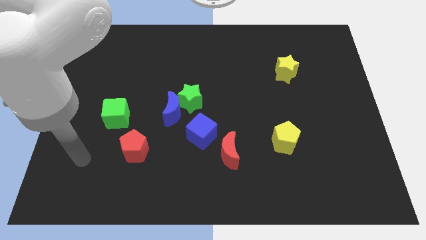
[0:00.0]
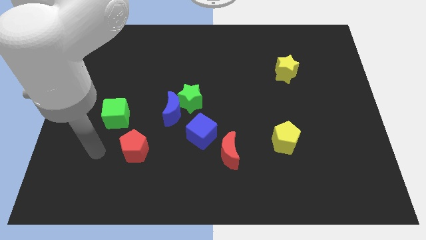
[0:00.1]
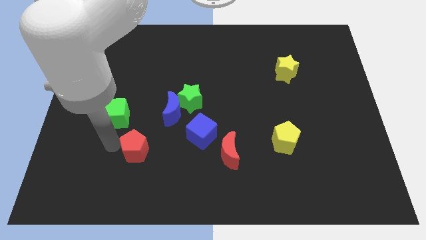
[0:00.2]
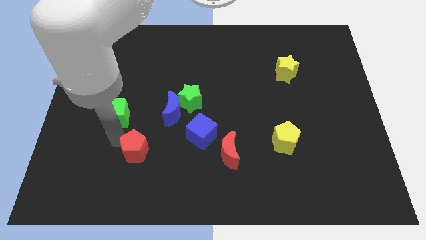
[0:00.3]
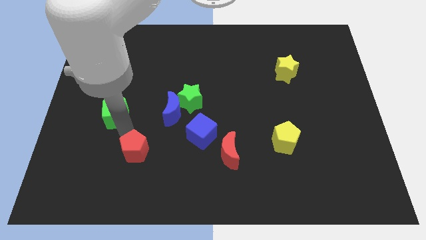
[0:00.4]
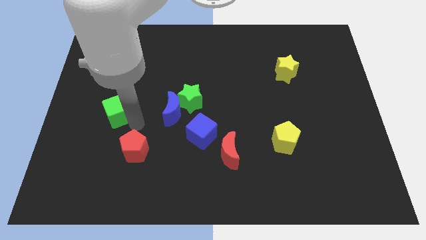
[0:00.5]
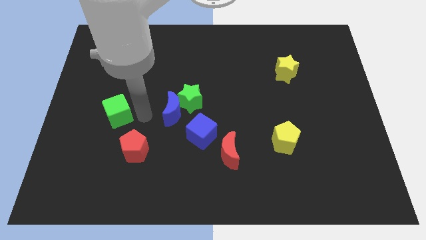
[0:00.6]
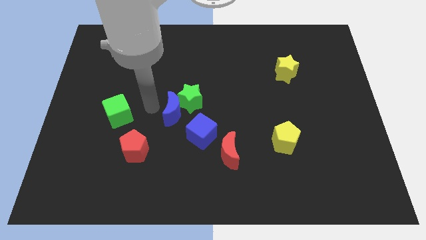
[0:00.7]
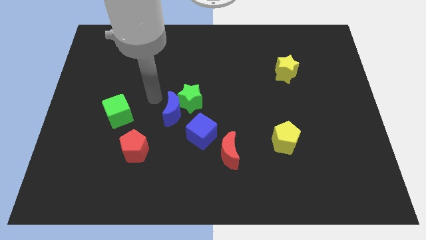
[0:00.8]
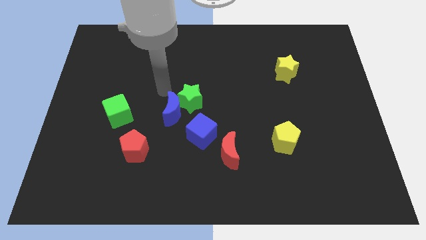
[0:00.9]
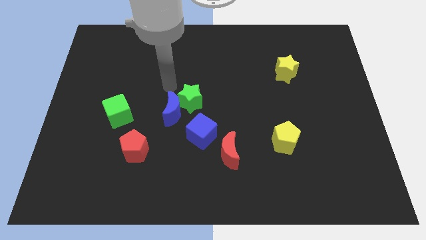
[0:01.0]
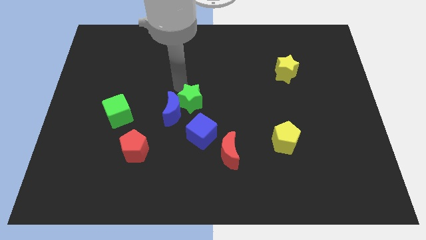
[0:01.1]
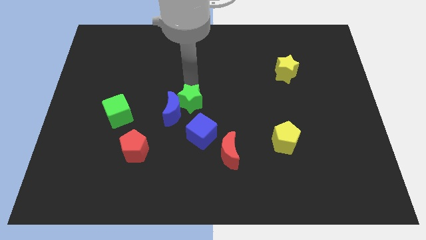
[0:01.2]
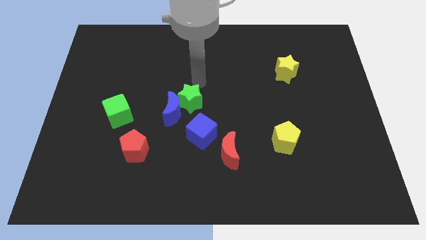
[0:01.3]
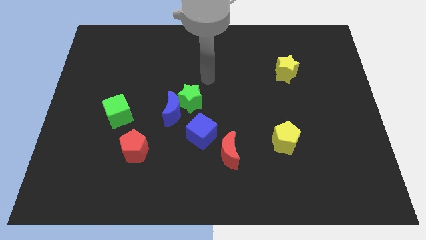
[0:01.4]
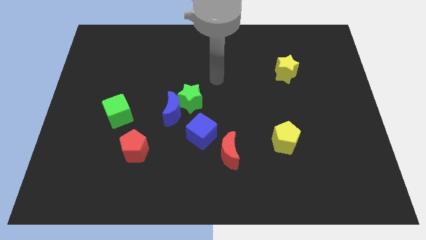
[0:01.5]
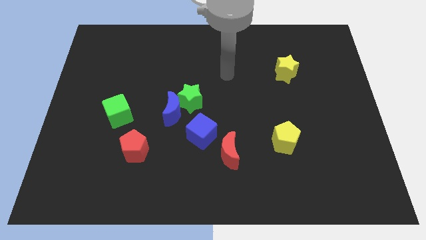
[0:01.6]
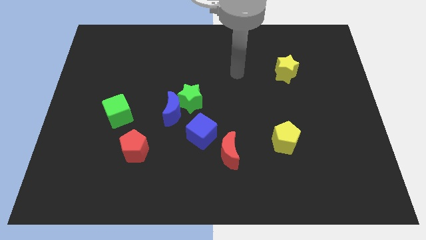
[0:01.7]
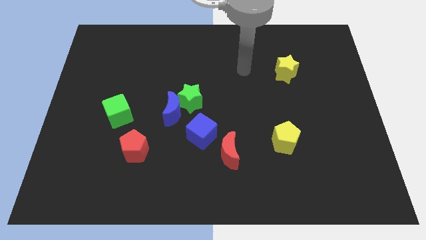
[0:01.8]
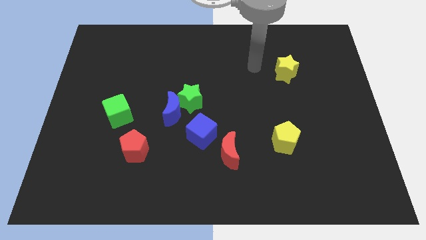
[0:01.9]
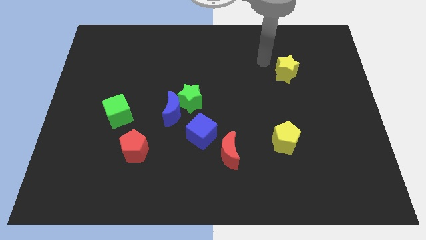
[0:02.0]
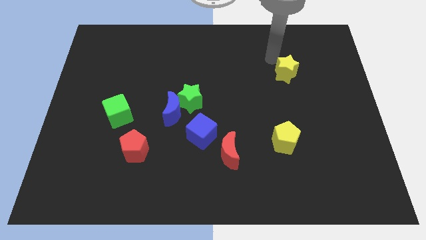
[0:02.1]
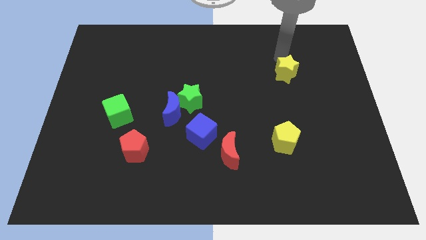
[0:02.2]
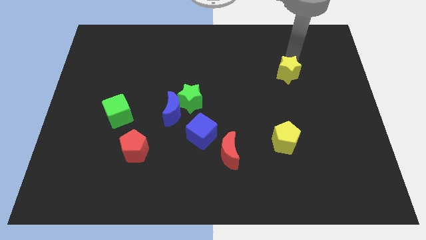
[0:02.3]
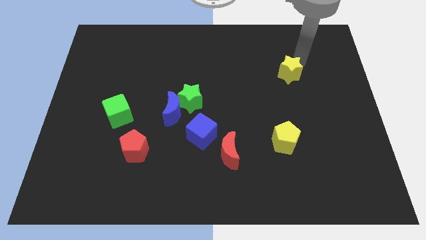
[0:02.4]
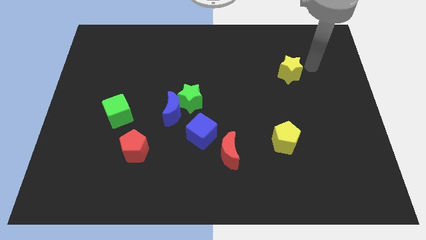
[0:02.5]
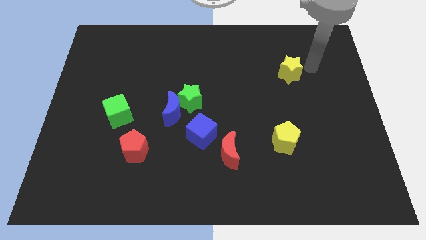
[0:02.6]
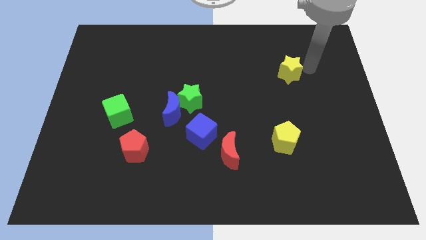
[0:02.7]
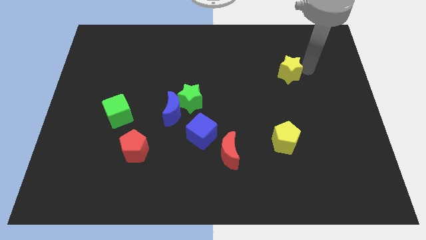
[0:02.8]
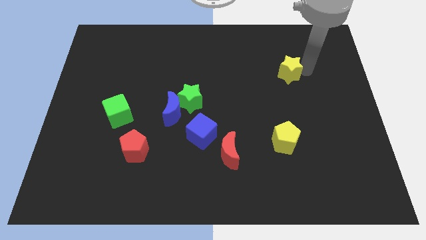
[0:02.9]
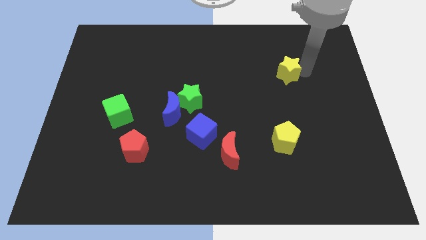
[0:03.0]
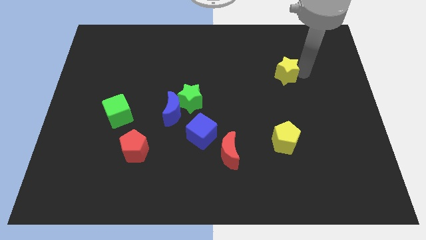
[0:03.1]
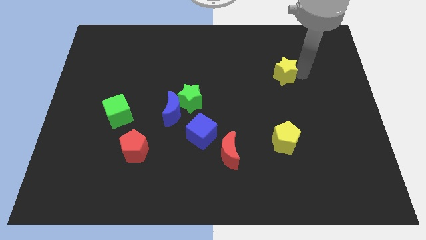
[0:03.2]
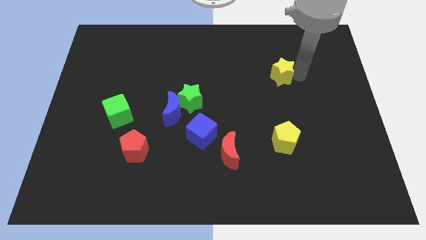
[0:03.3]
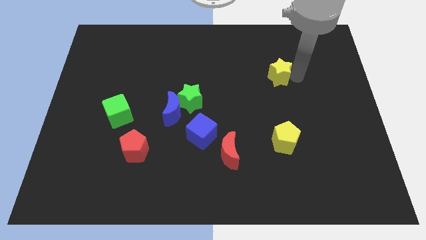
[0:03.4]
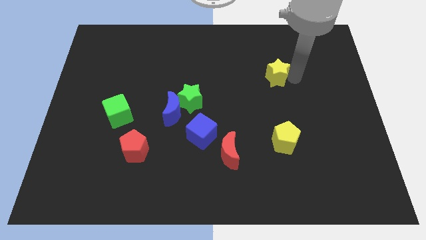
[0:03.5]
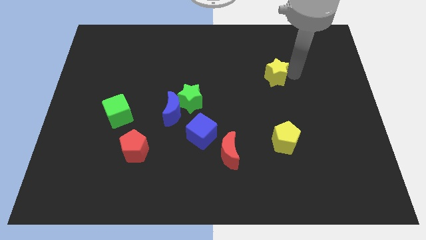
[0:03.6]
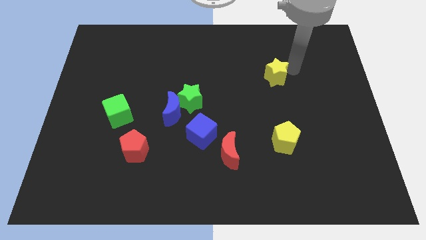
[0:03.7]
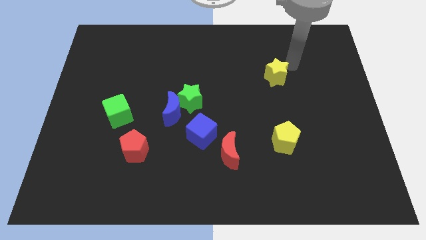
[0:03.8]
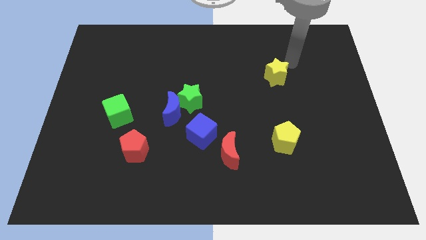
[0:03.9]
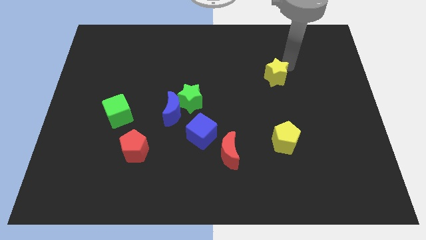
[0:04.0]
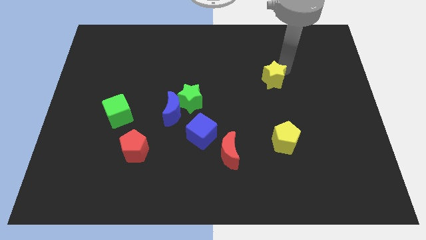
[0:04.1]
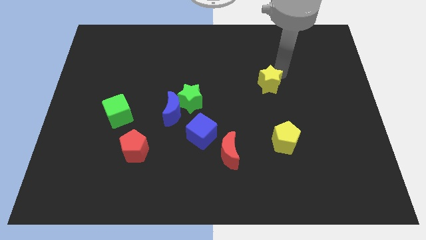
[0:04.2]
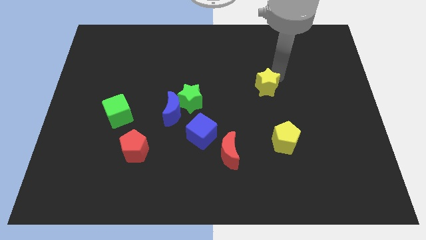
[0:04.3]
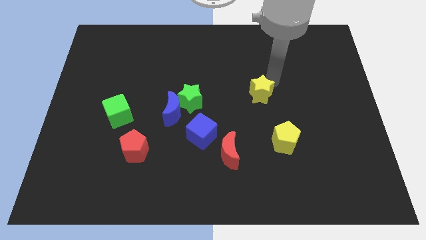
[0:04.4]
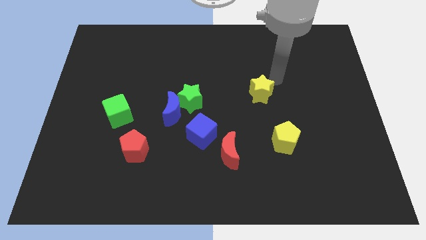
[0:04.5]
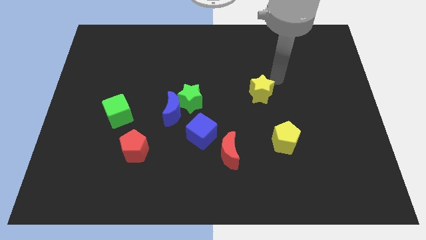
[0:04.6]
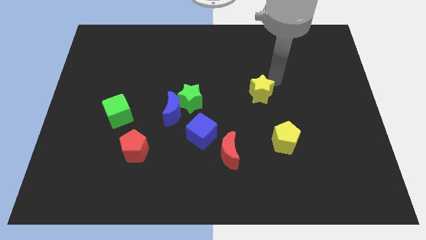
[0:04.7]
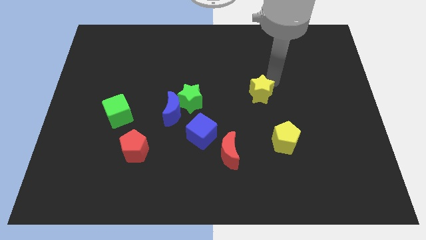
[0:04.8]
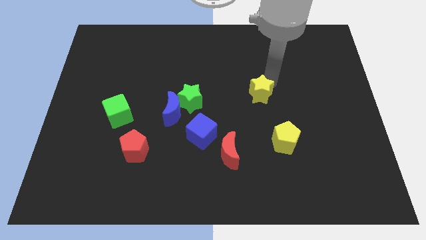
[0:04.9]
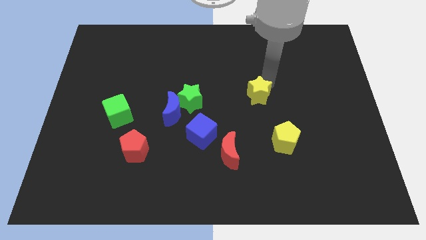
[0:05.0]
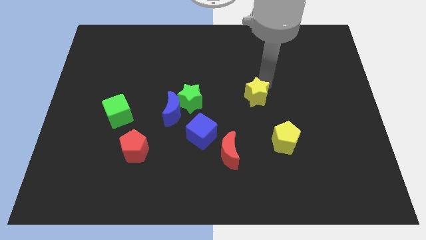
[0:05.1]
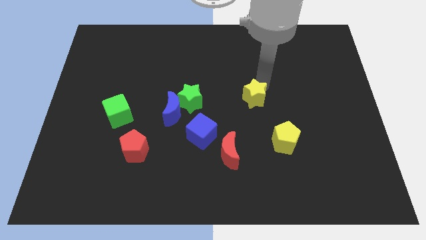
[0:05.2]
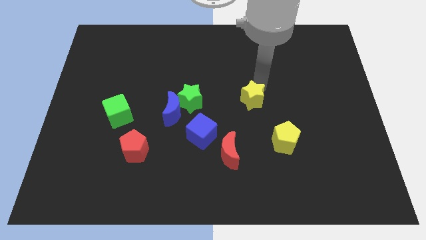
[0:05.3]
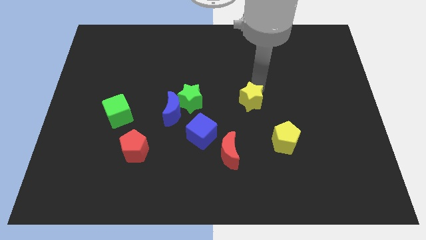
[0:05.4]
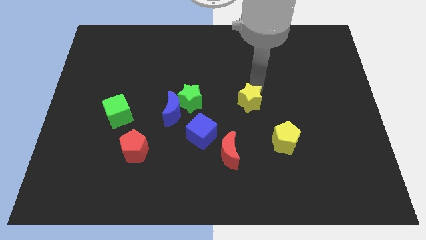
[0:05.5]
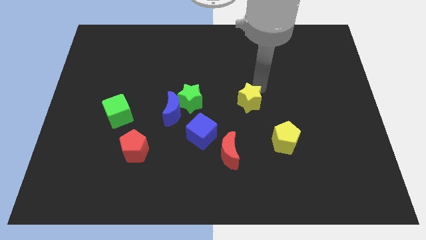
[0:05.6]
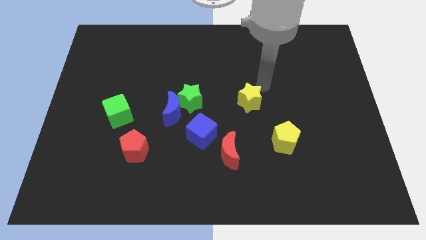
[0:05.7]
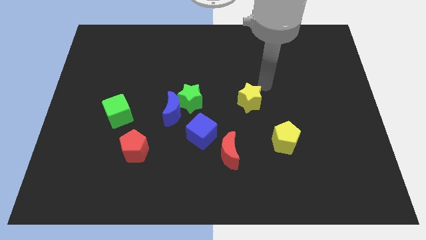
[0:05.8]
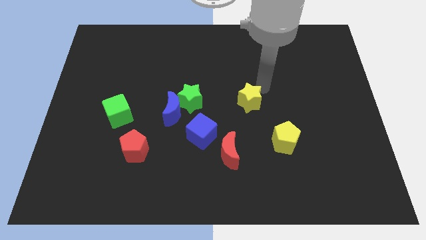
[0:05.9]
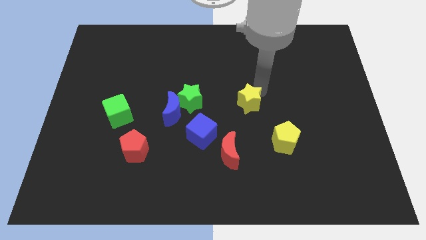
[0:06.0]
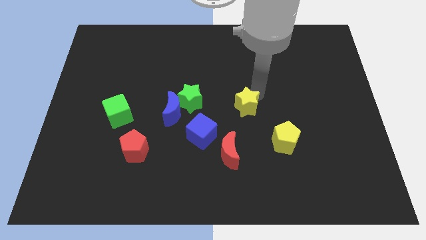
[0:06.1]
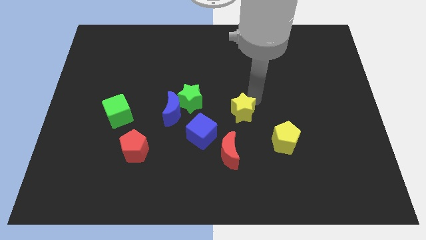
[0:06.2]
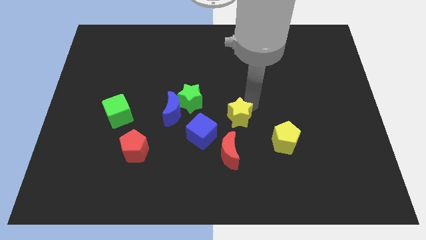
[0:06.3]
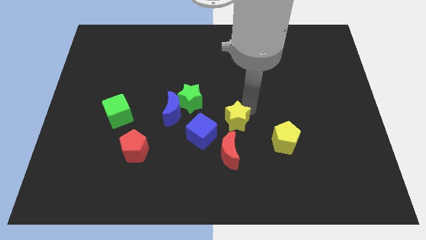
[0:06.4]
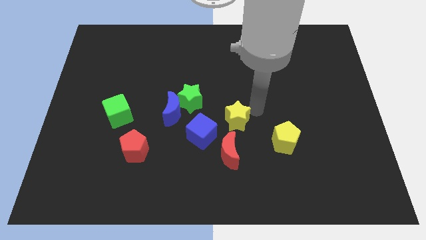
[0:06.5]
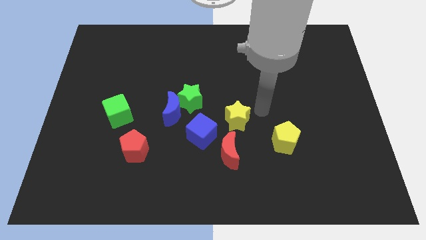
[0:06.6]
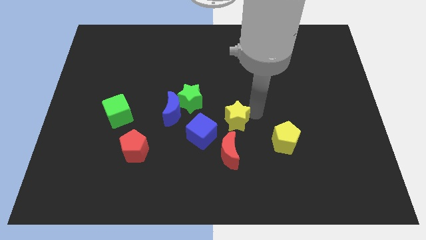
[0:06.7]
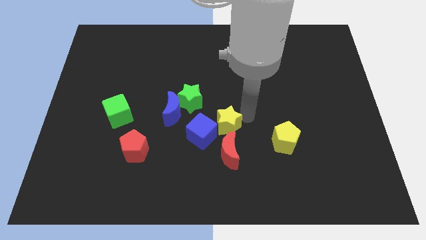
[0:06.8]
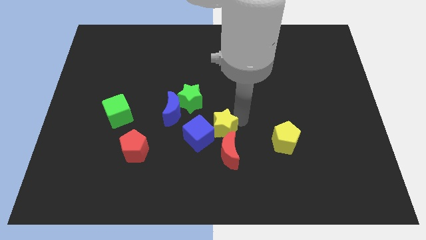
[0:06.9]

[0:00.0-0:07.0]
slide the yellow star towards the blue cube

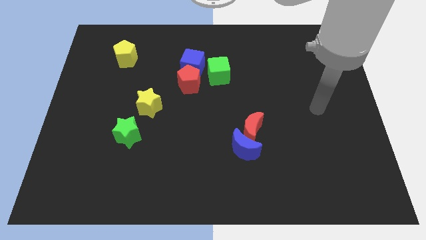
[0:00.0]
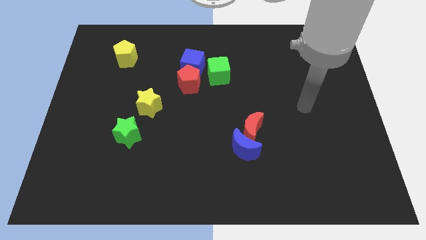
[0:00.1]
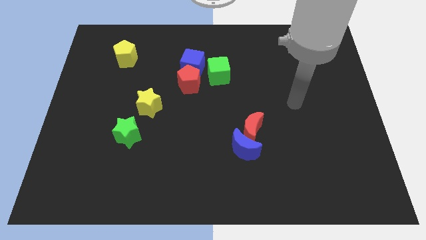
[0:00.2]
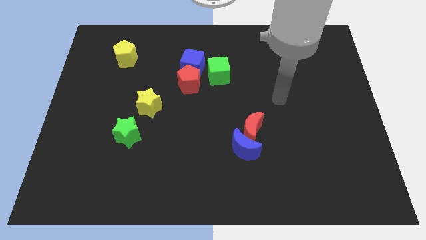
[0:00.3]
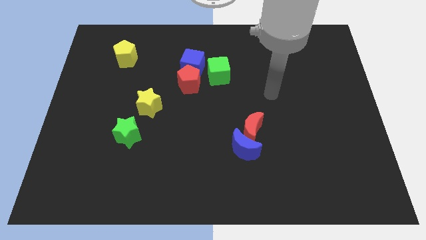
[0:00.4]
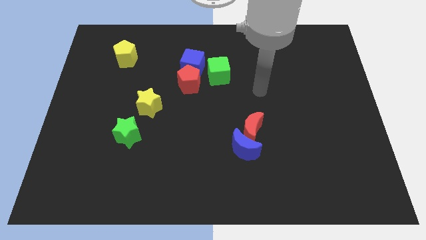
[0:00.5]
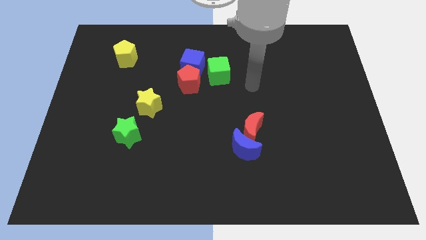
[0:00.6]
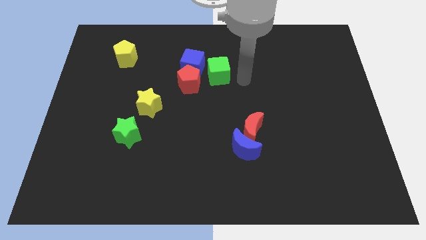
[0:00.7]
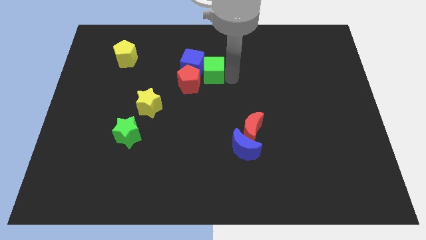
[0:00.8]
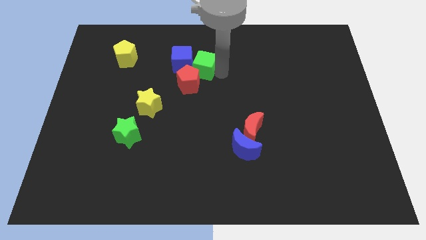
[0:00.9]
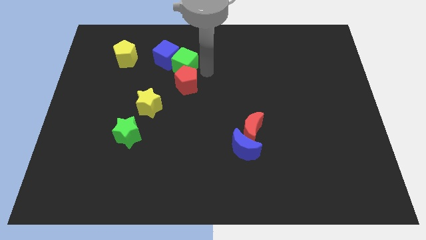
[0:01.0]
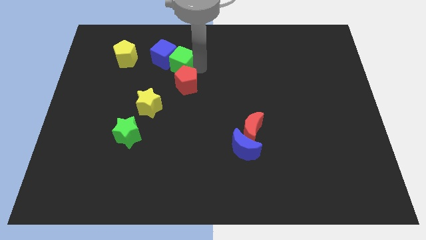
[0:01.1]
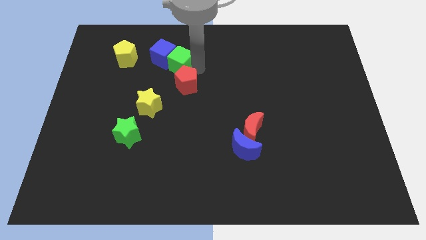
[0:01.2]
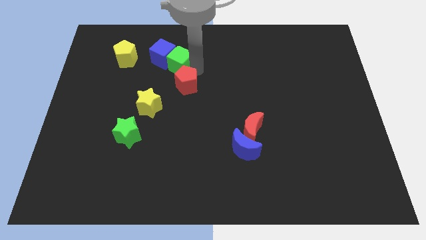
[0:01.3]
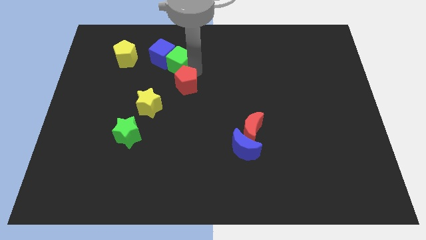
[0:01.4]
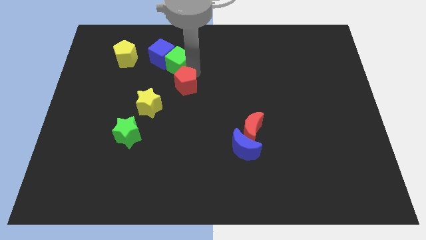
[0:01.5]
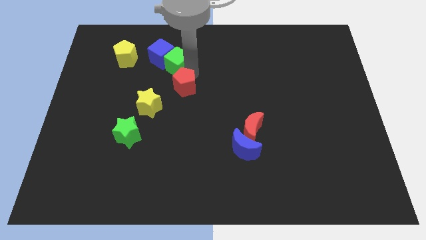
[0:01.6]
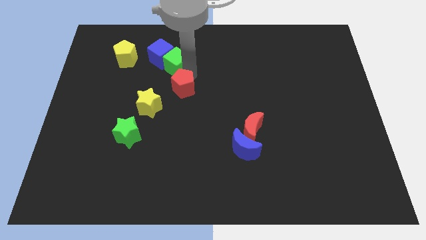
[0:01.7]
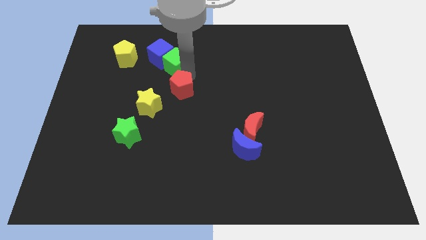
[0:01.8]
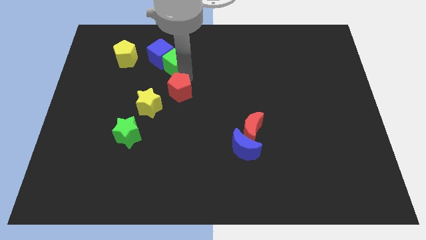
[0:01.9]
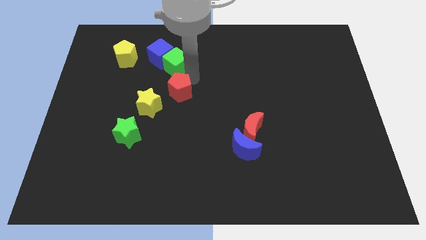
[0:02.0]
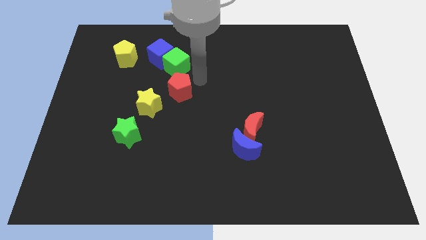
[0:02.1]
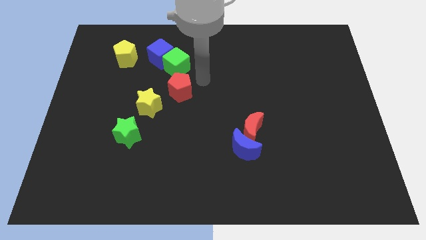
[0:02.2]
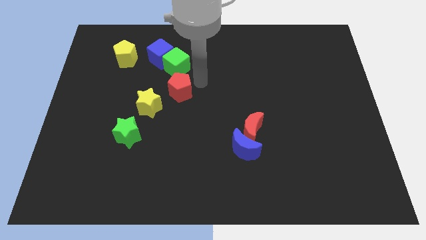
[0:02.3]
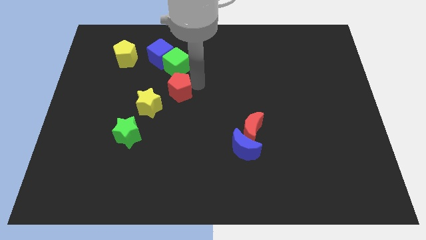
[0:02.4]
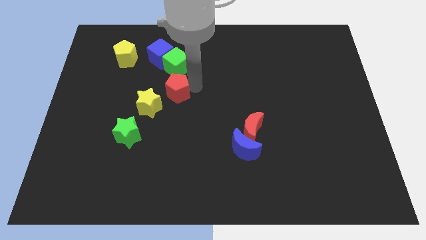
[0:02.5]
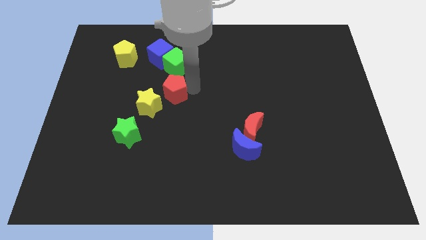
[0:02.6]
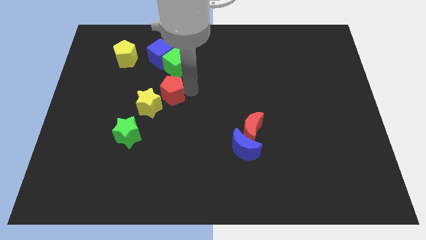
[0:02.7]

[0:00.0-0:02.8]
move the red pentagon towards the yellow star
